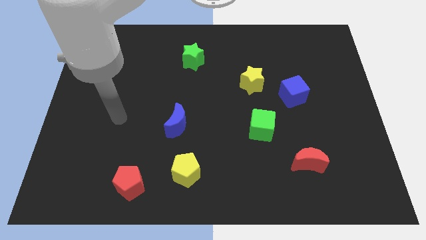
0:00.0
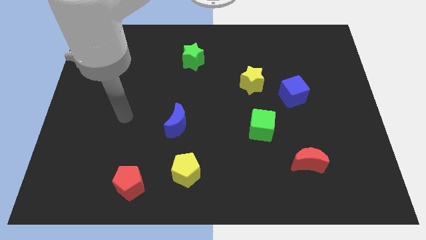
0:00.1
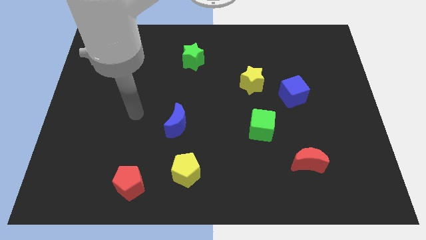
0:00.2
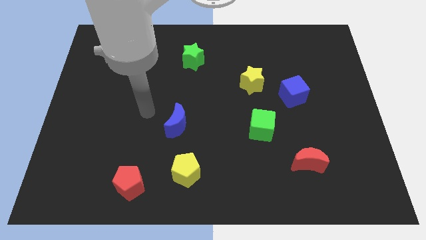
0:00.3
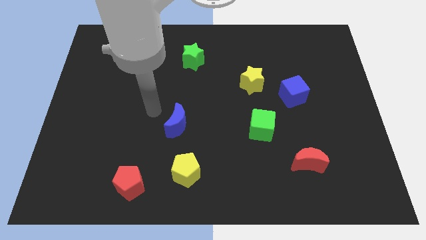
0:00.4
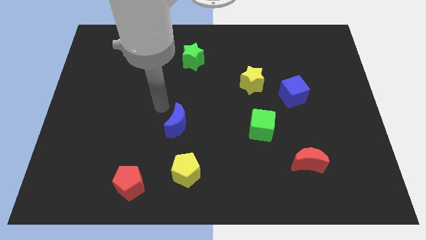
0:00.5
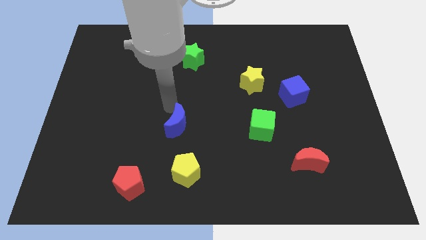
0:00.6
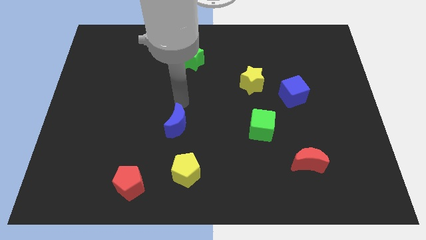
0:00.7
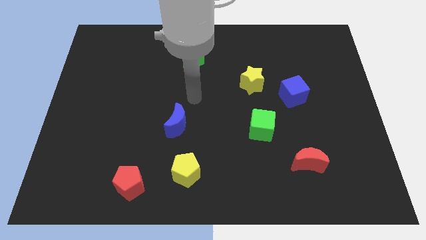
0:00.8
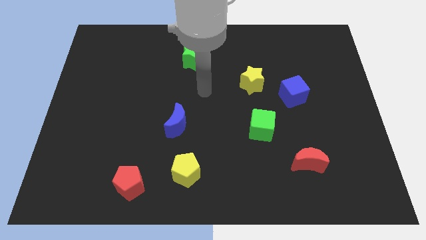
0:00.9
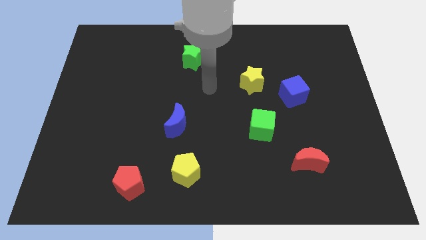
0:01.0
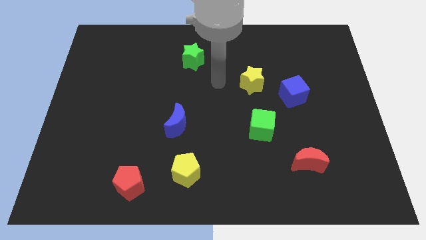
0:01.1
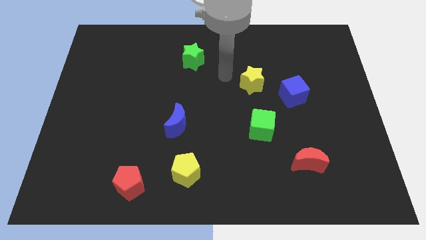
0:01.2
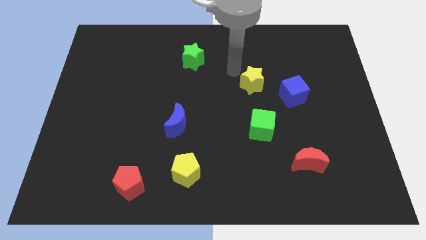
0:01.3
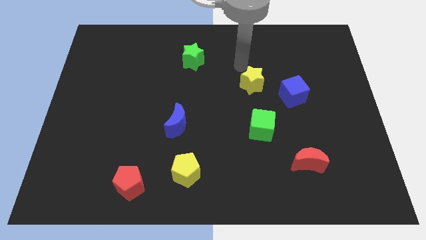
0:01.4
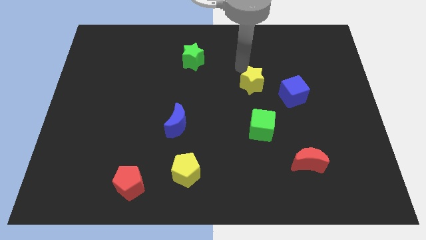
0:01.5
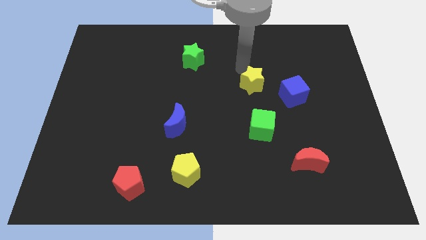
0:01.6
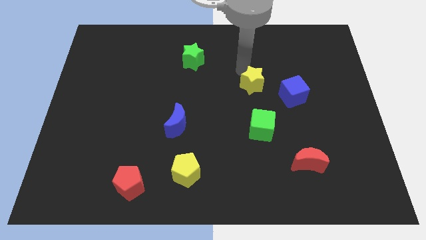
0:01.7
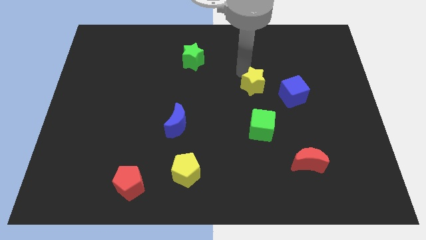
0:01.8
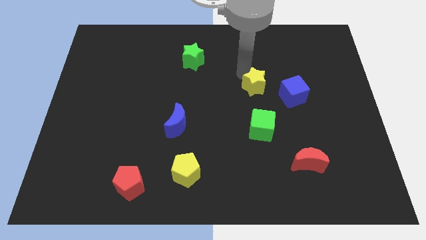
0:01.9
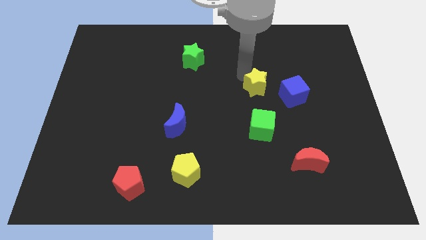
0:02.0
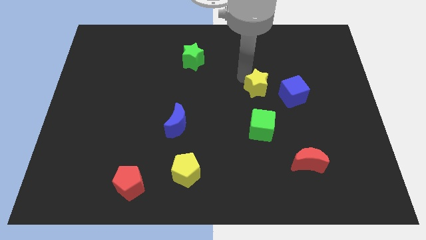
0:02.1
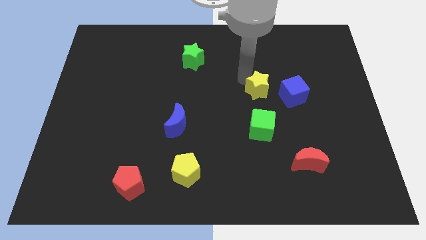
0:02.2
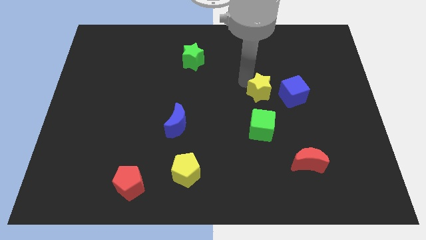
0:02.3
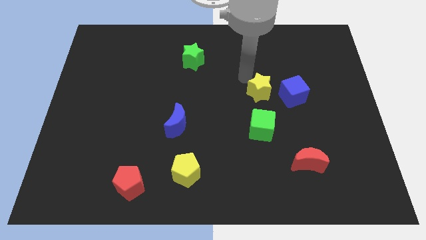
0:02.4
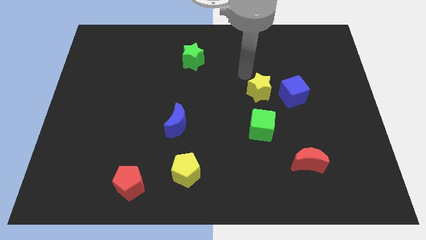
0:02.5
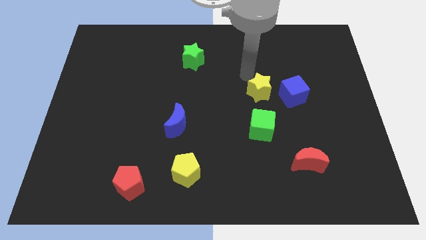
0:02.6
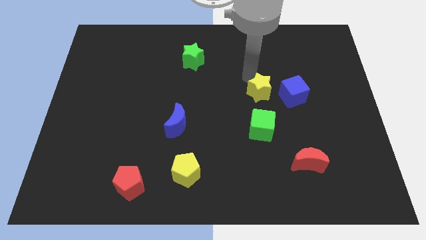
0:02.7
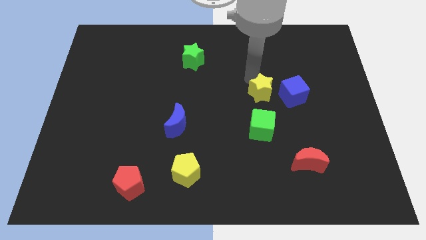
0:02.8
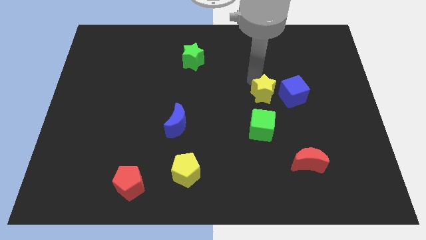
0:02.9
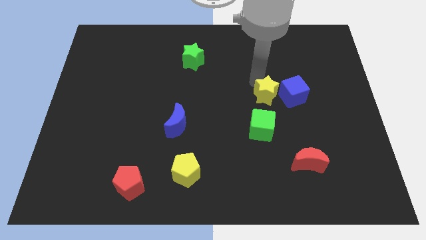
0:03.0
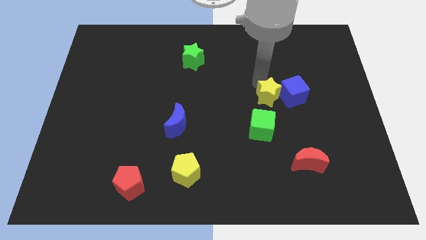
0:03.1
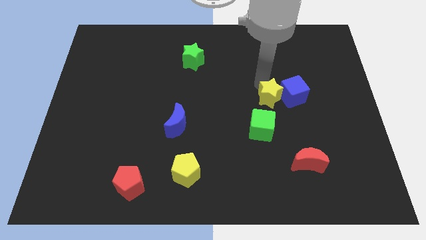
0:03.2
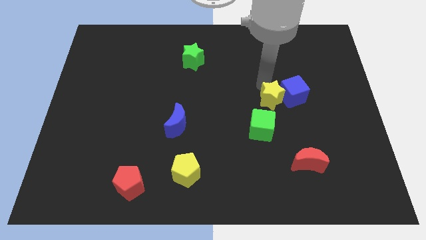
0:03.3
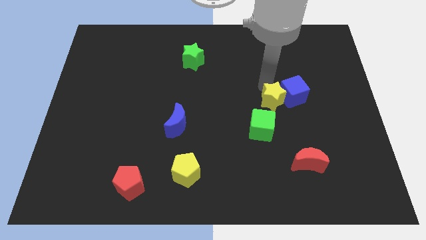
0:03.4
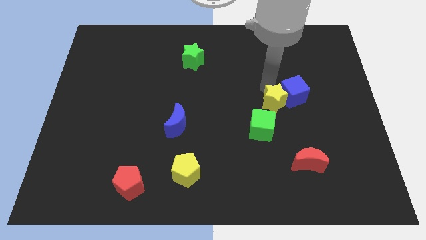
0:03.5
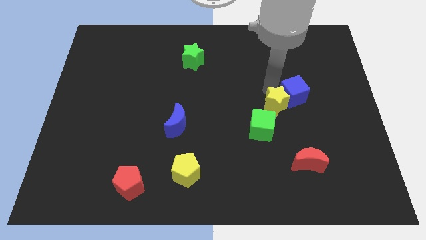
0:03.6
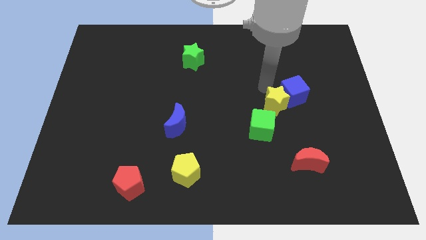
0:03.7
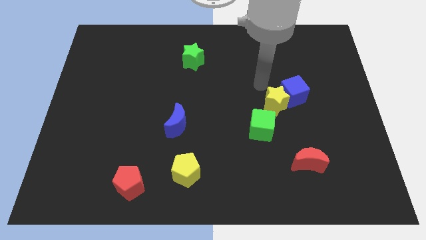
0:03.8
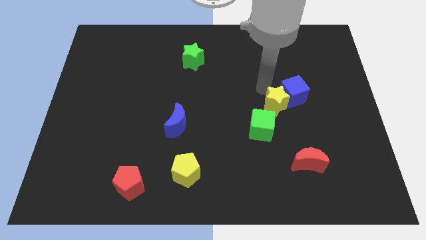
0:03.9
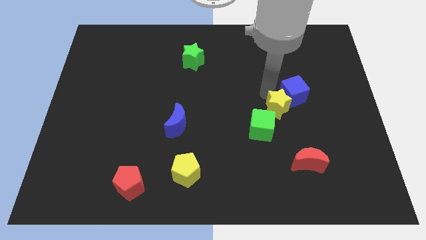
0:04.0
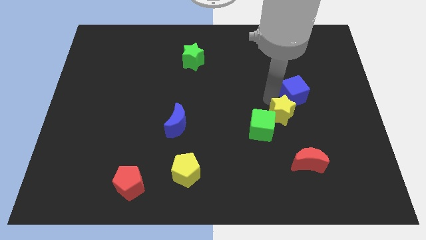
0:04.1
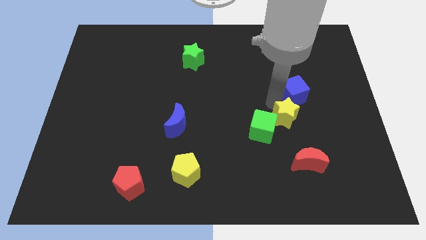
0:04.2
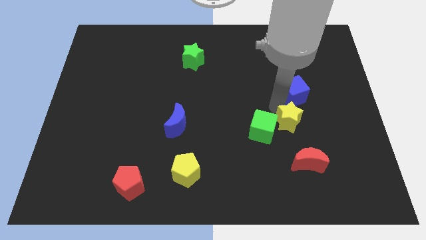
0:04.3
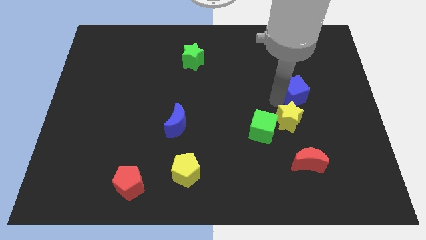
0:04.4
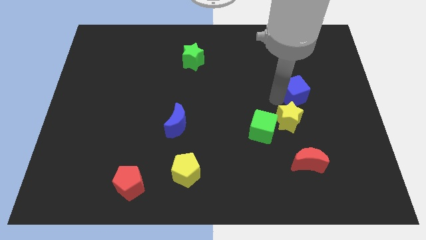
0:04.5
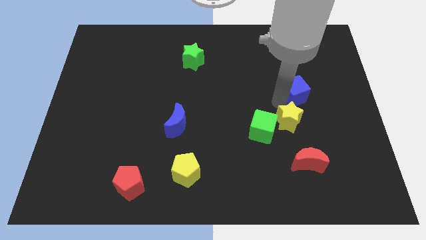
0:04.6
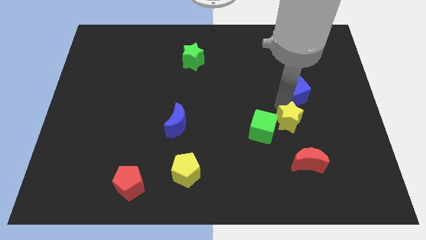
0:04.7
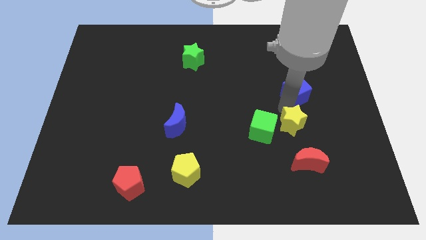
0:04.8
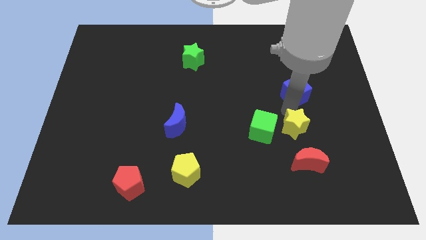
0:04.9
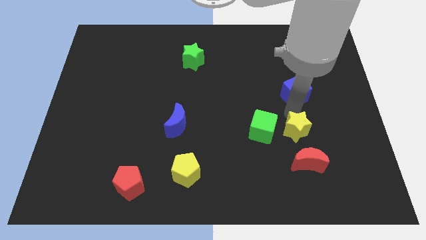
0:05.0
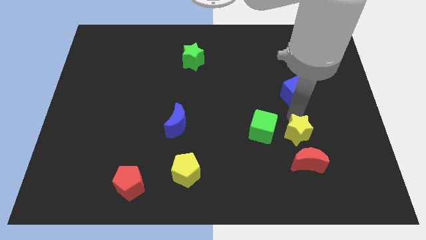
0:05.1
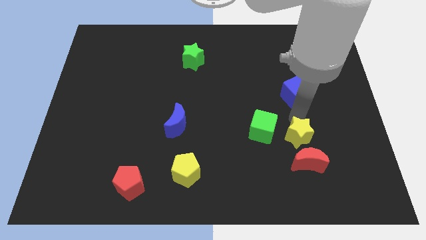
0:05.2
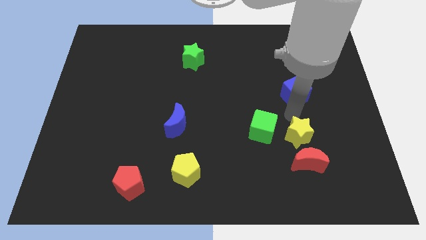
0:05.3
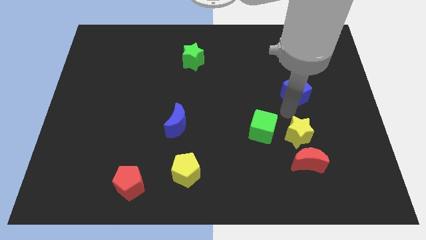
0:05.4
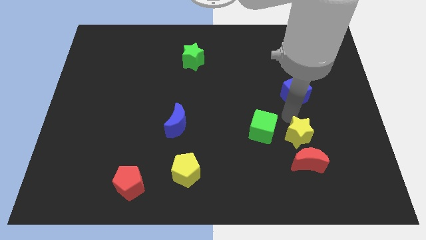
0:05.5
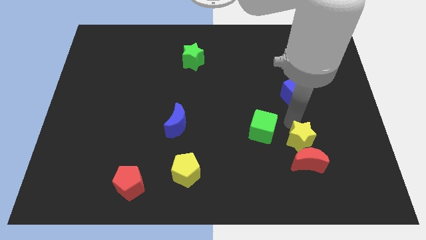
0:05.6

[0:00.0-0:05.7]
push the yellow star towards the red moon

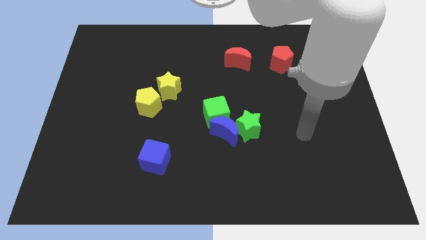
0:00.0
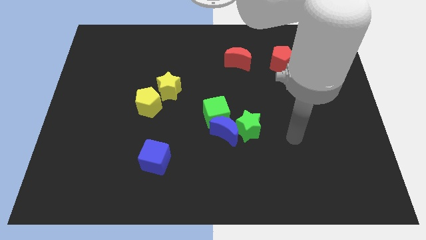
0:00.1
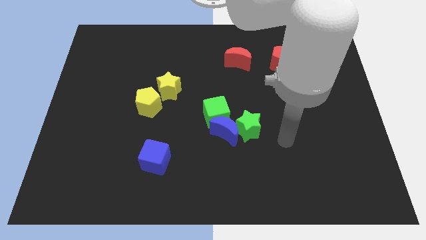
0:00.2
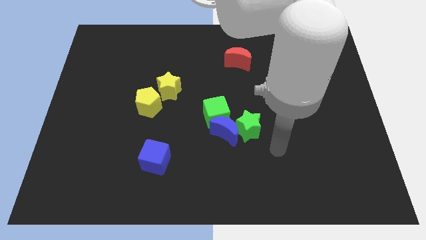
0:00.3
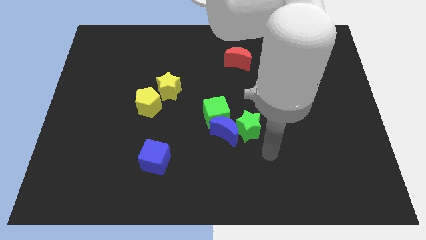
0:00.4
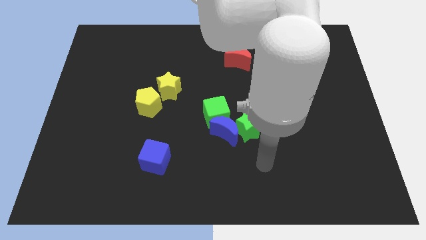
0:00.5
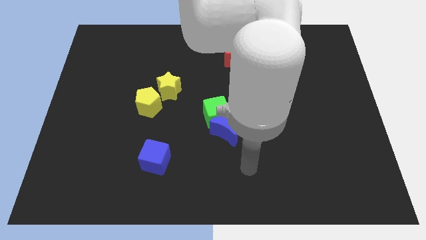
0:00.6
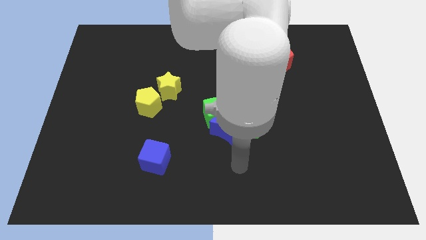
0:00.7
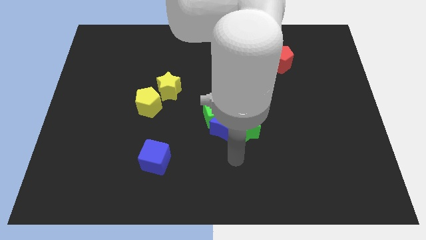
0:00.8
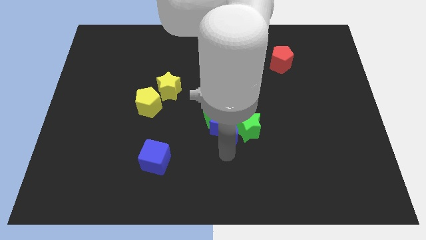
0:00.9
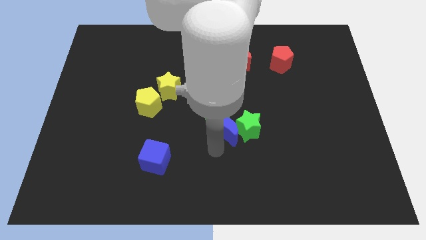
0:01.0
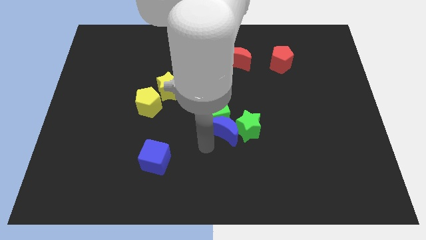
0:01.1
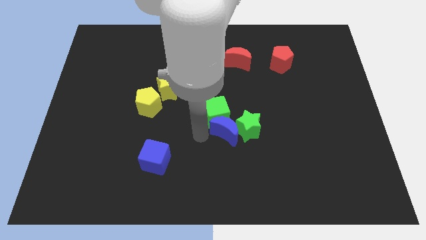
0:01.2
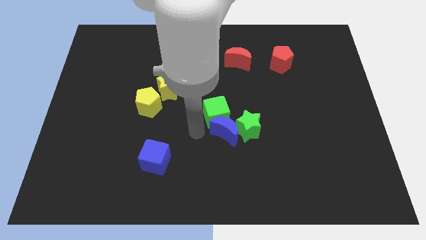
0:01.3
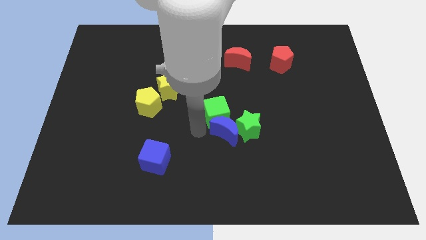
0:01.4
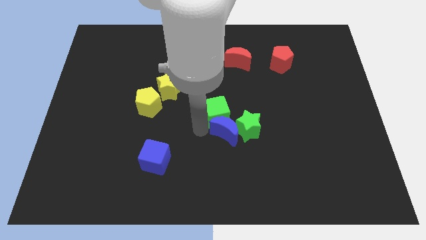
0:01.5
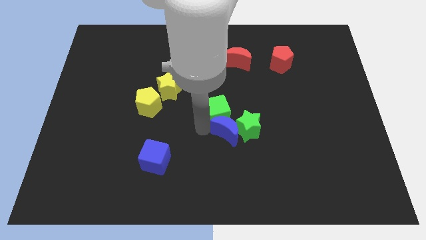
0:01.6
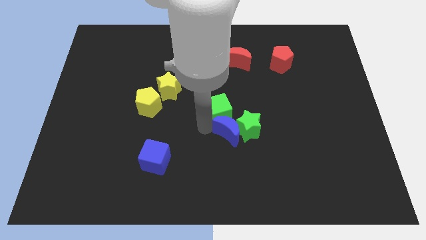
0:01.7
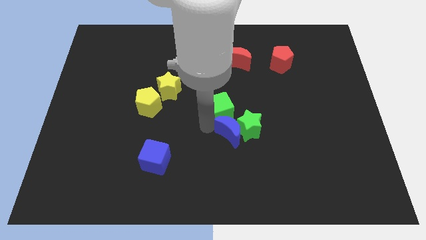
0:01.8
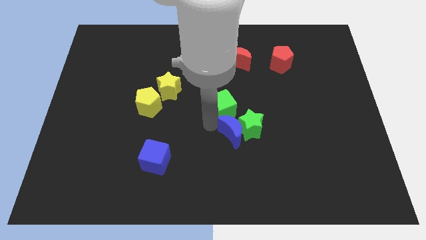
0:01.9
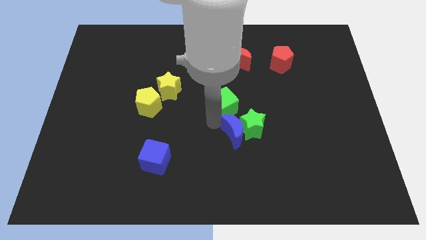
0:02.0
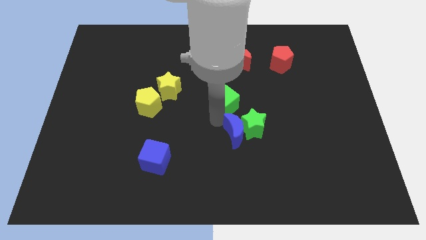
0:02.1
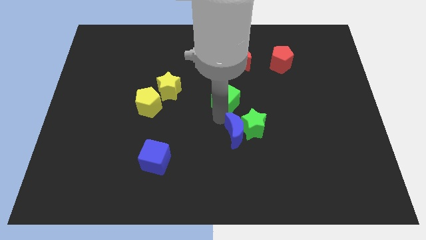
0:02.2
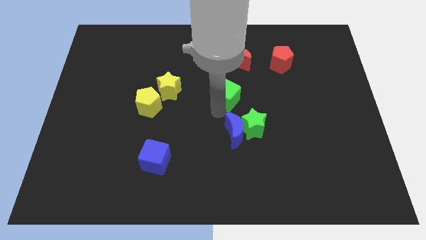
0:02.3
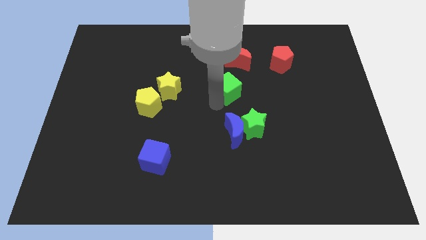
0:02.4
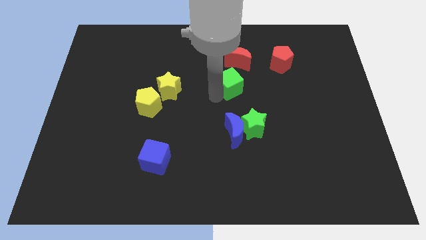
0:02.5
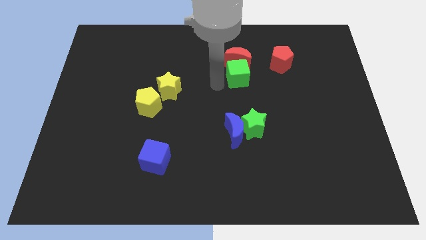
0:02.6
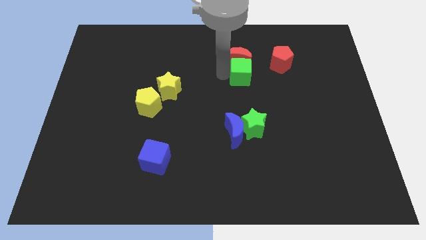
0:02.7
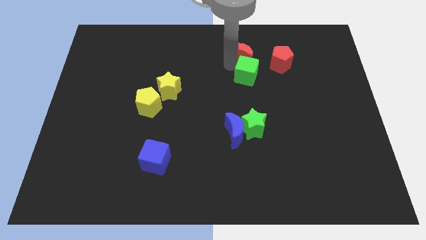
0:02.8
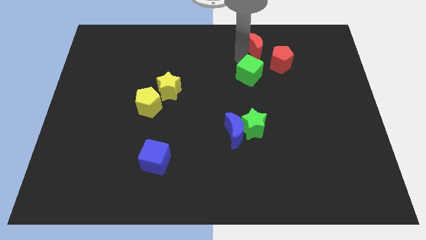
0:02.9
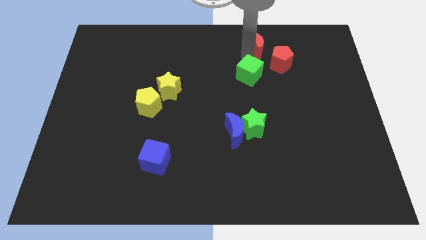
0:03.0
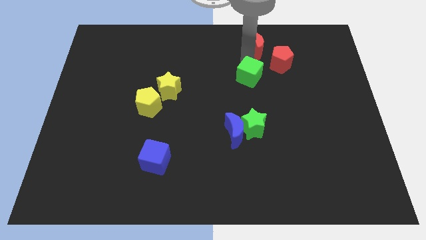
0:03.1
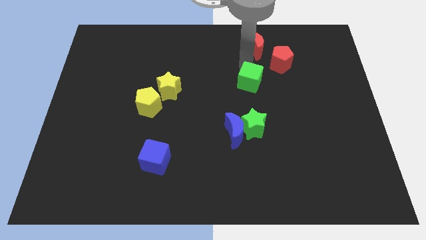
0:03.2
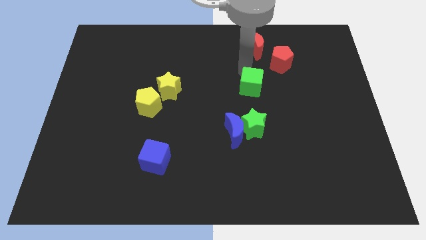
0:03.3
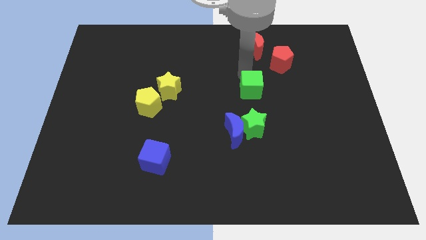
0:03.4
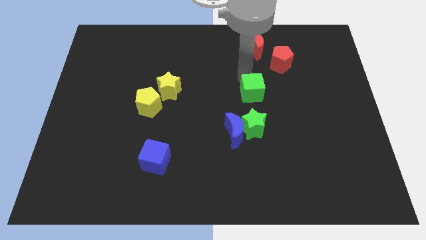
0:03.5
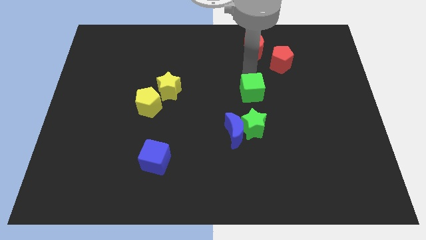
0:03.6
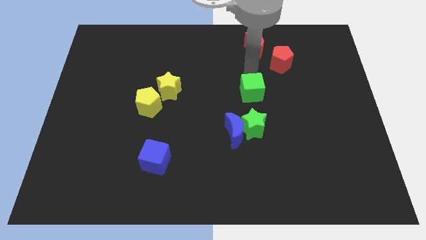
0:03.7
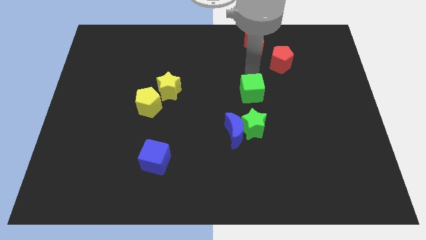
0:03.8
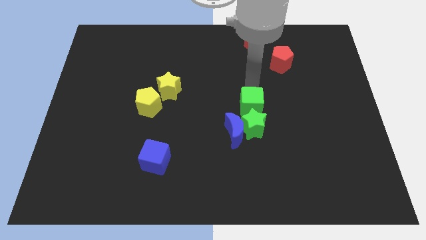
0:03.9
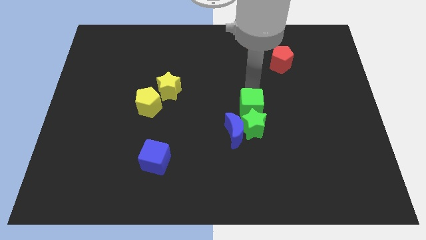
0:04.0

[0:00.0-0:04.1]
move the green cube to the green star
